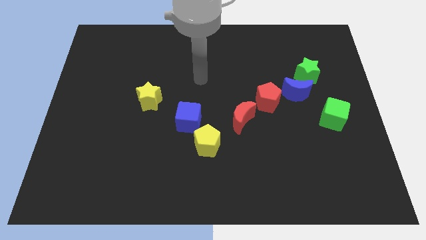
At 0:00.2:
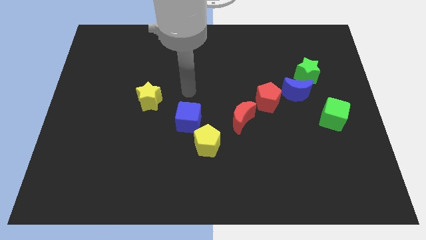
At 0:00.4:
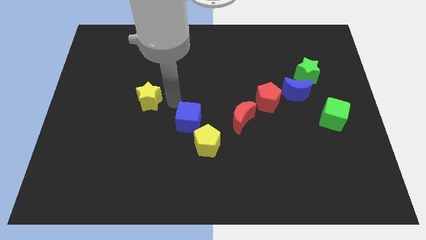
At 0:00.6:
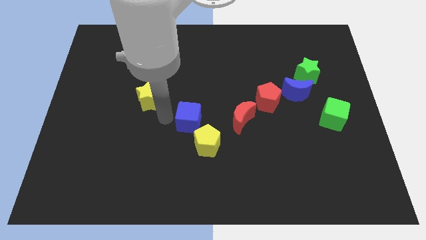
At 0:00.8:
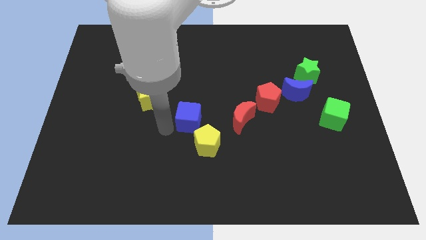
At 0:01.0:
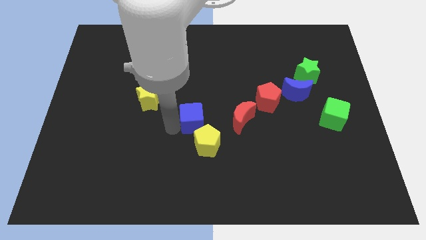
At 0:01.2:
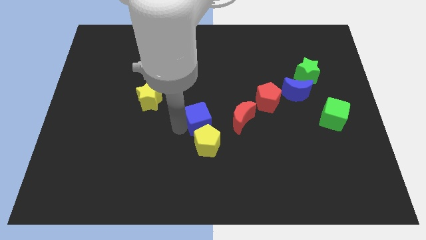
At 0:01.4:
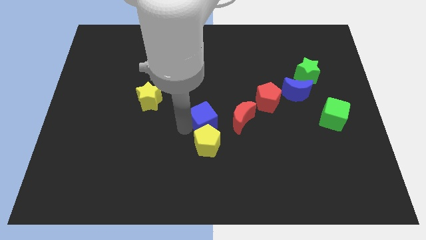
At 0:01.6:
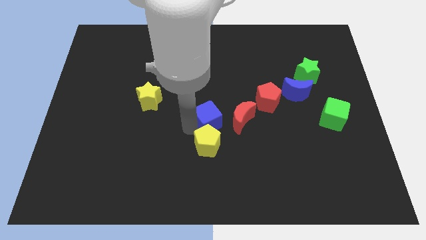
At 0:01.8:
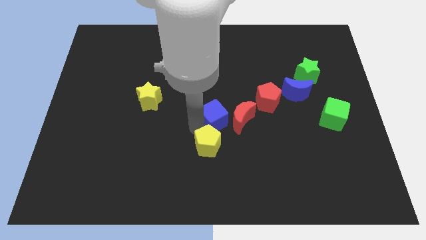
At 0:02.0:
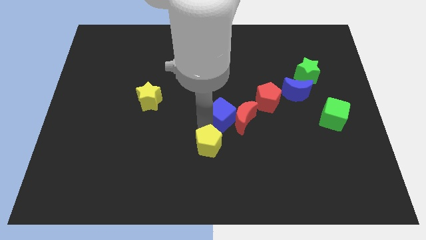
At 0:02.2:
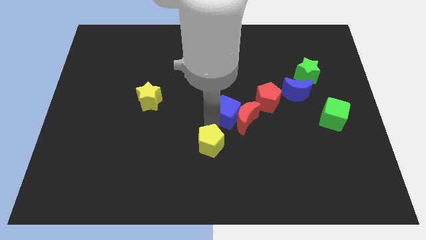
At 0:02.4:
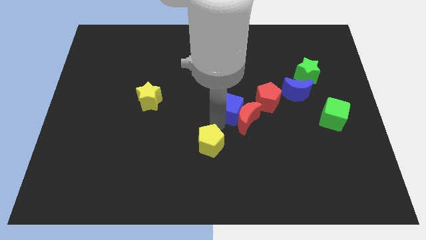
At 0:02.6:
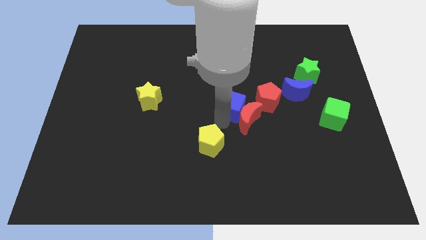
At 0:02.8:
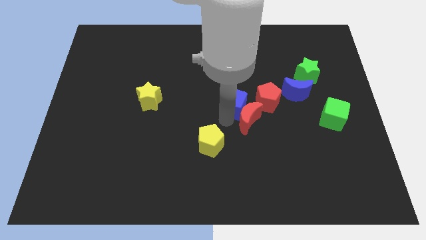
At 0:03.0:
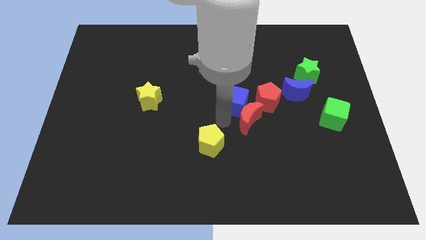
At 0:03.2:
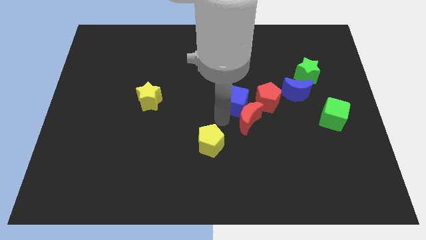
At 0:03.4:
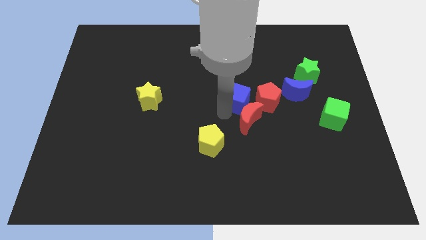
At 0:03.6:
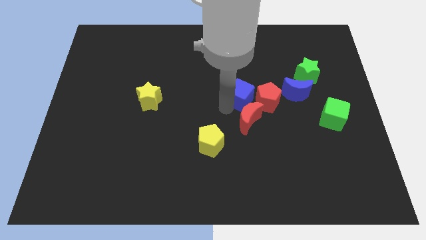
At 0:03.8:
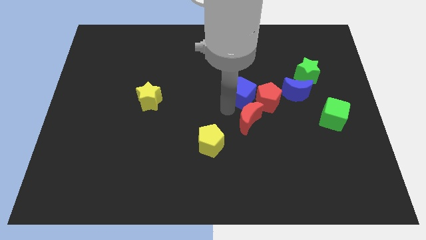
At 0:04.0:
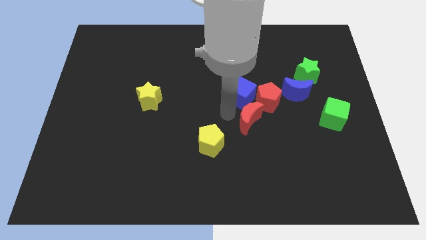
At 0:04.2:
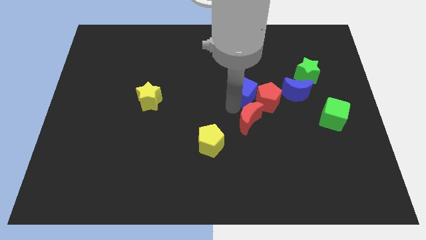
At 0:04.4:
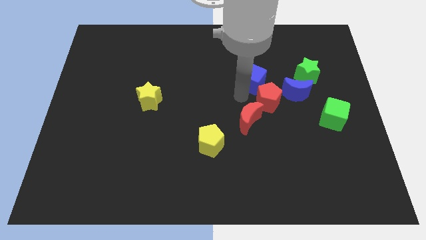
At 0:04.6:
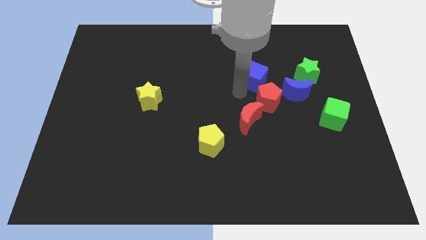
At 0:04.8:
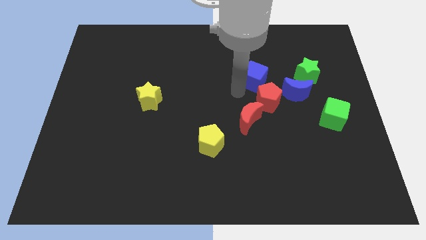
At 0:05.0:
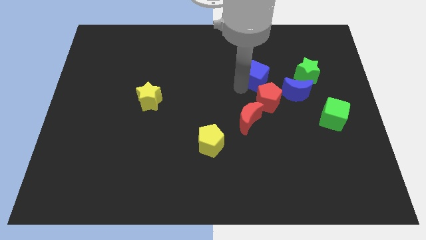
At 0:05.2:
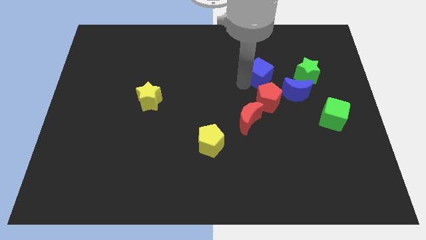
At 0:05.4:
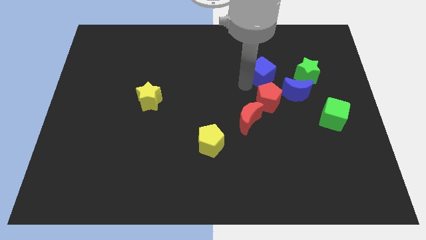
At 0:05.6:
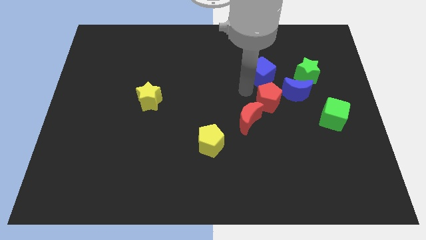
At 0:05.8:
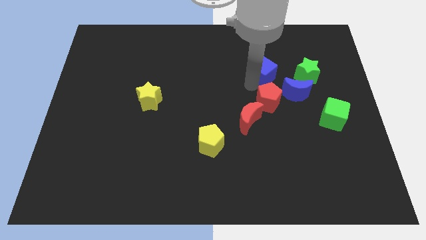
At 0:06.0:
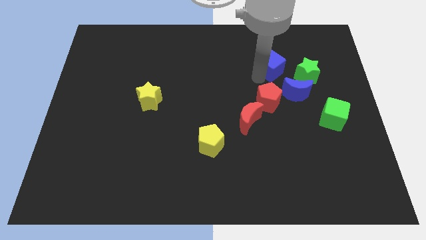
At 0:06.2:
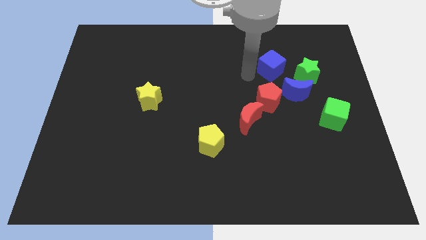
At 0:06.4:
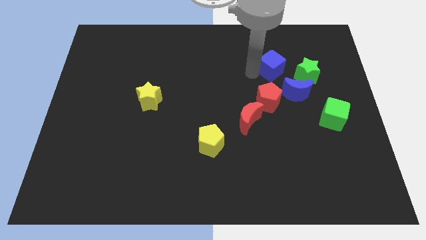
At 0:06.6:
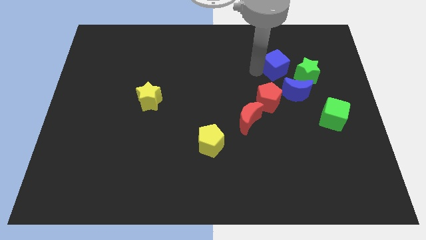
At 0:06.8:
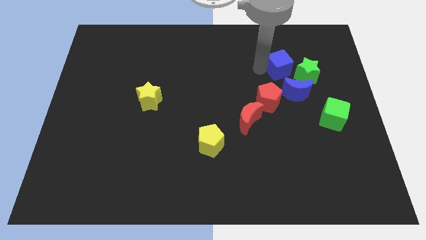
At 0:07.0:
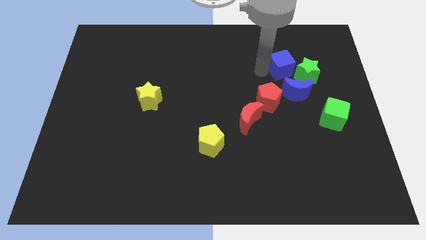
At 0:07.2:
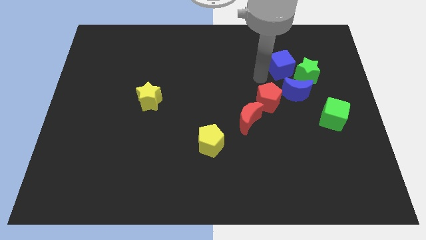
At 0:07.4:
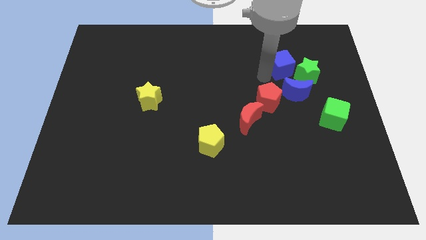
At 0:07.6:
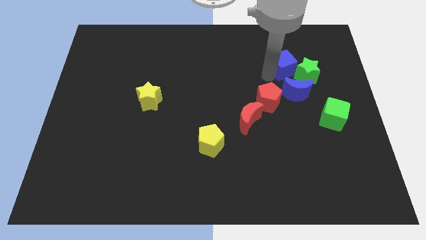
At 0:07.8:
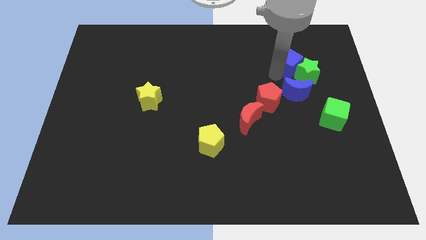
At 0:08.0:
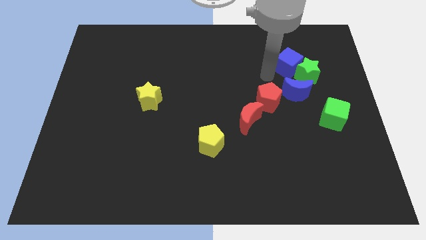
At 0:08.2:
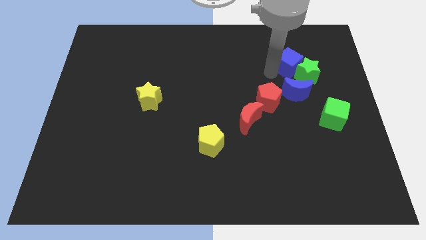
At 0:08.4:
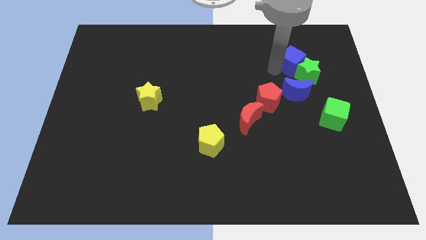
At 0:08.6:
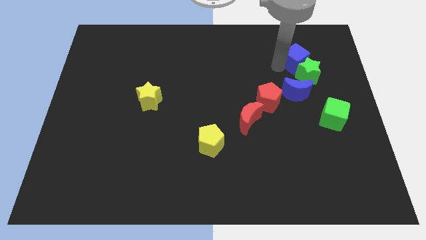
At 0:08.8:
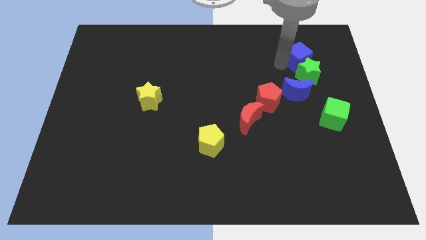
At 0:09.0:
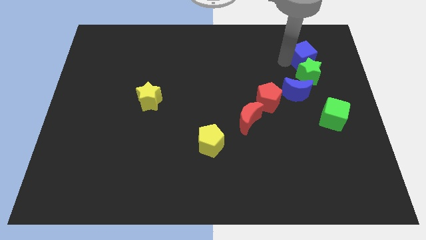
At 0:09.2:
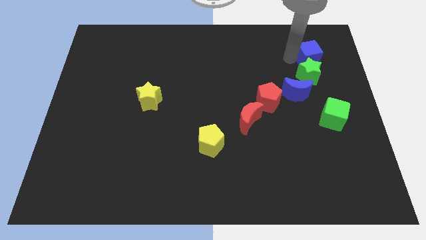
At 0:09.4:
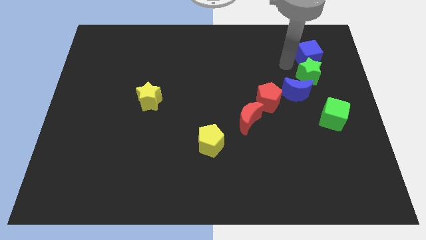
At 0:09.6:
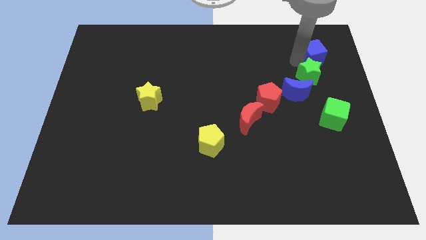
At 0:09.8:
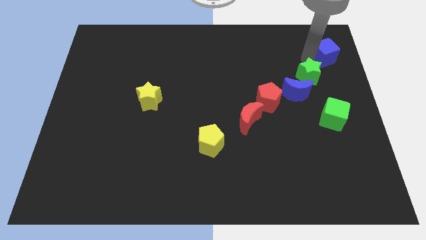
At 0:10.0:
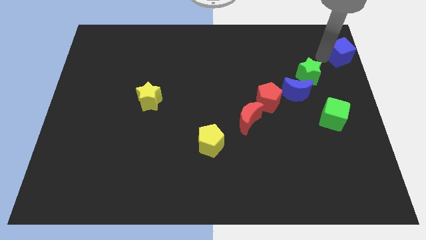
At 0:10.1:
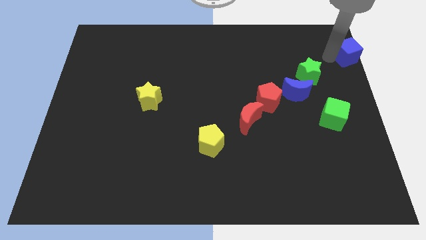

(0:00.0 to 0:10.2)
put the blue cube to the top right of the board

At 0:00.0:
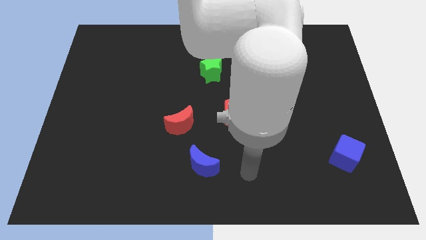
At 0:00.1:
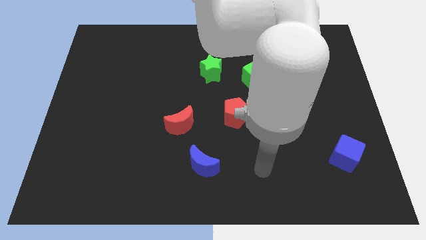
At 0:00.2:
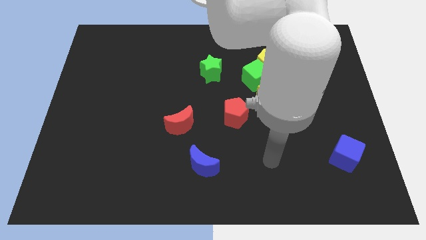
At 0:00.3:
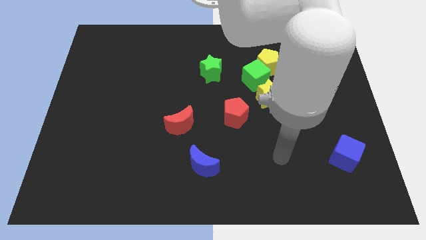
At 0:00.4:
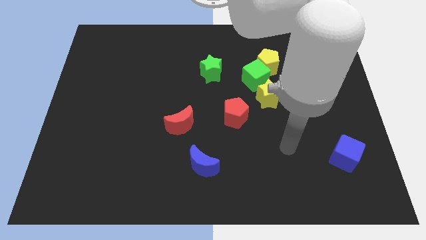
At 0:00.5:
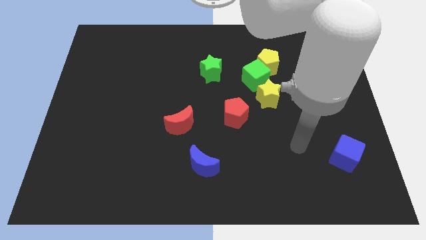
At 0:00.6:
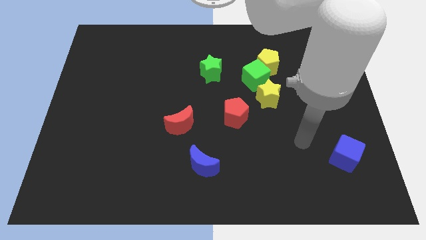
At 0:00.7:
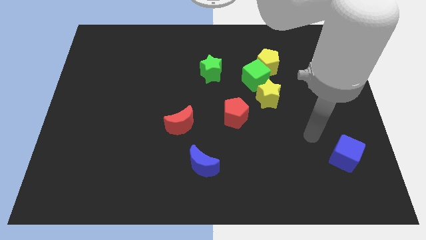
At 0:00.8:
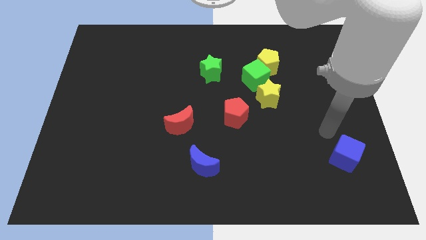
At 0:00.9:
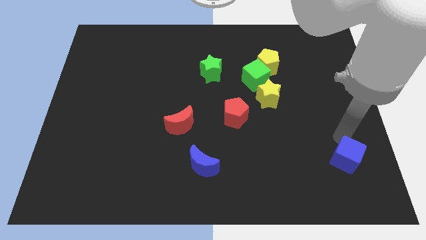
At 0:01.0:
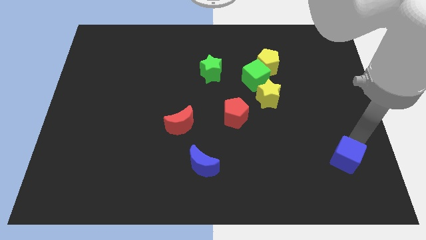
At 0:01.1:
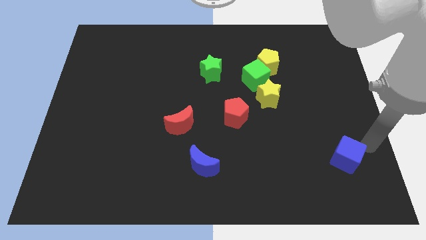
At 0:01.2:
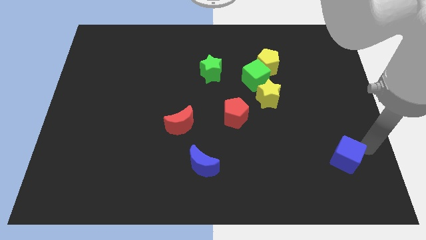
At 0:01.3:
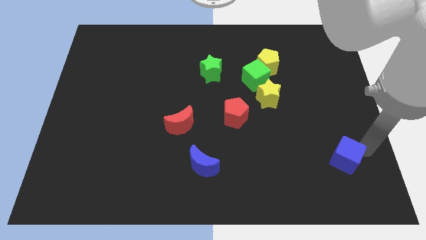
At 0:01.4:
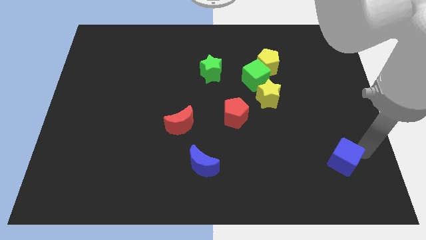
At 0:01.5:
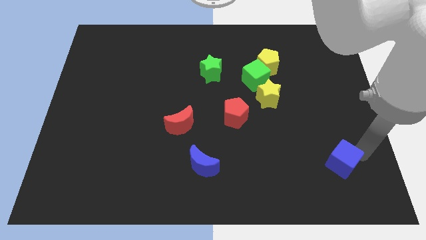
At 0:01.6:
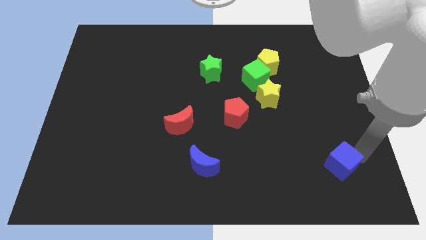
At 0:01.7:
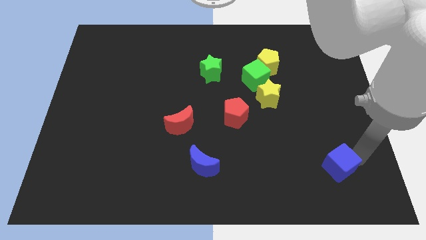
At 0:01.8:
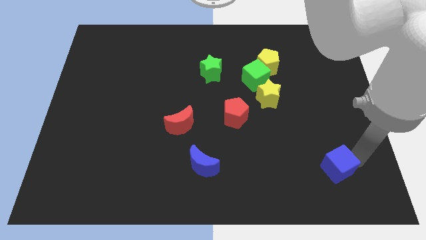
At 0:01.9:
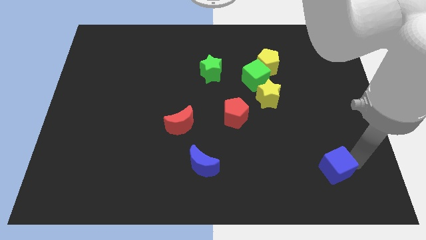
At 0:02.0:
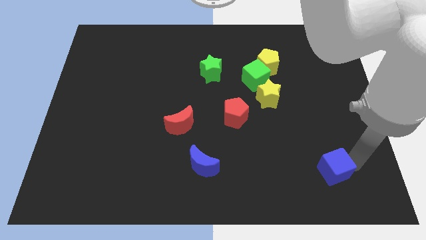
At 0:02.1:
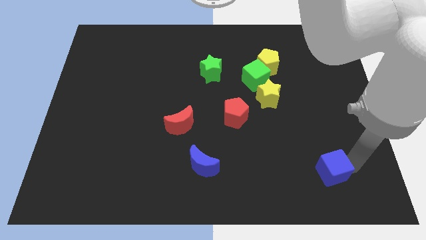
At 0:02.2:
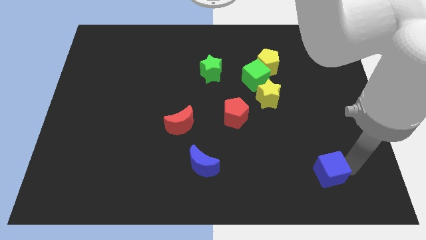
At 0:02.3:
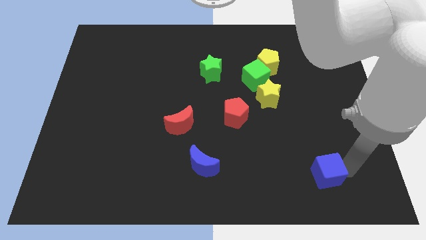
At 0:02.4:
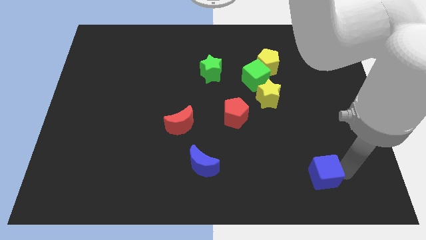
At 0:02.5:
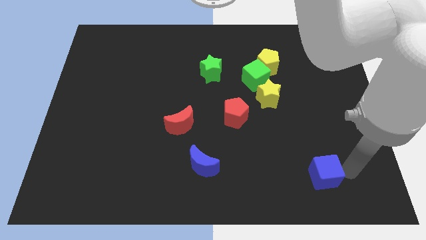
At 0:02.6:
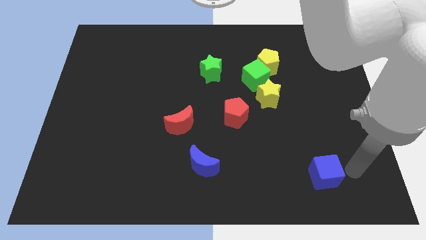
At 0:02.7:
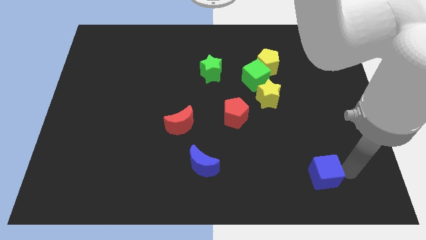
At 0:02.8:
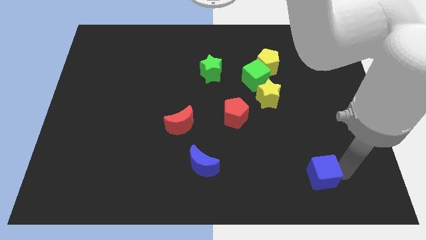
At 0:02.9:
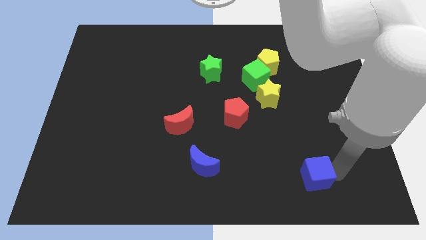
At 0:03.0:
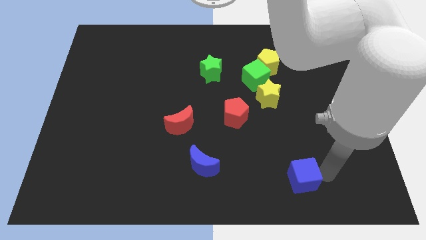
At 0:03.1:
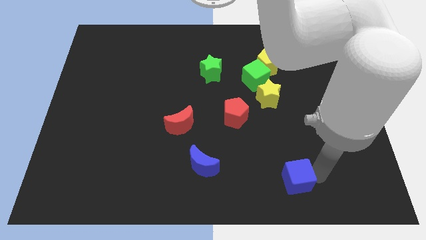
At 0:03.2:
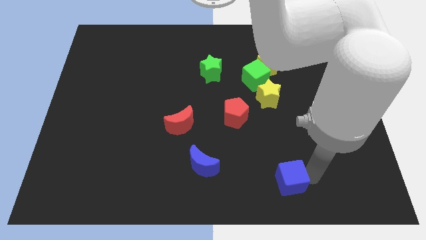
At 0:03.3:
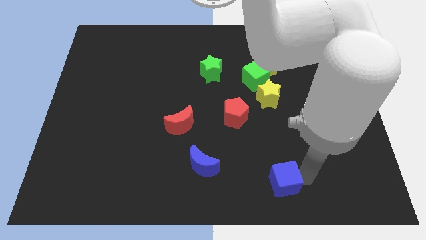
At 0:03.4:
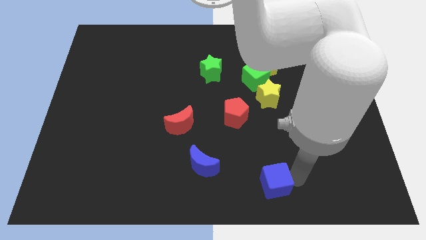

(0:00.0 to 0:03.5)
move the blue cube to the bottom
